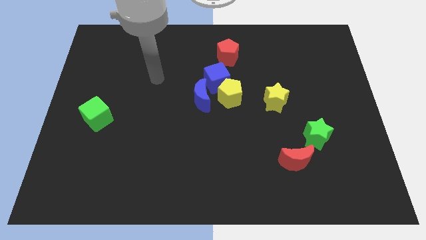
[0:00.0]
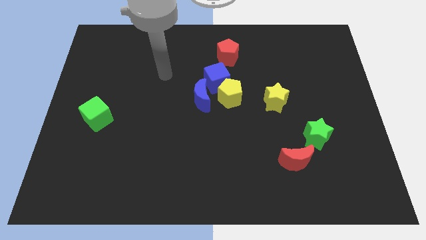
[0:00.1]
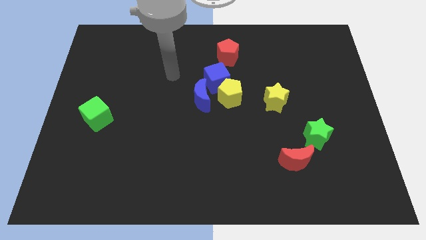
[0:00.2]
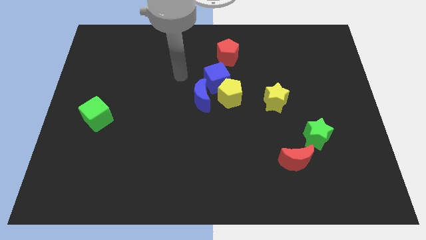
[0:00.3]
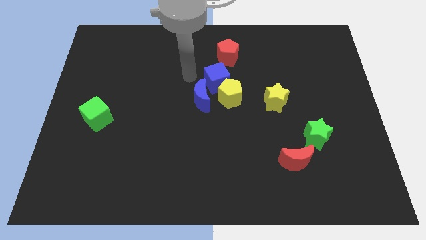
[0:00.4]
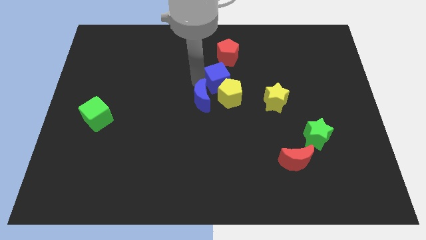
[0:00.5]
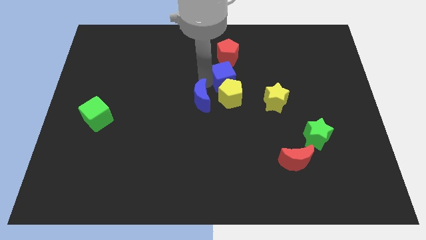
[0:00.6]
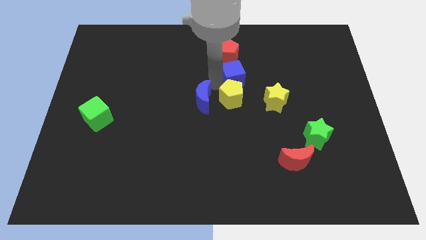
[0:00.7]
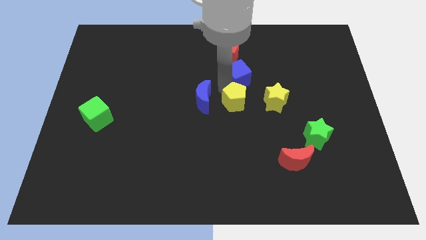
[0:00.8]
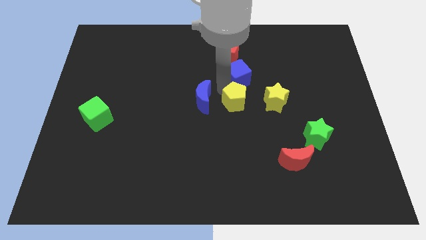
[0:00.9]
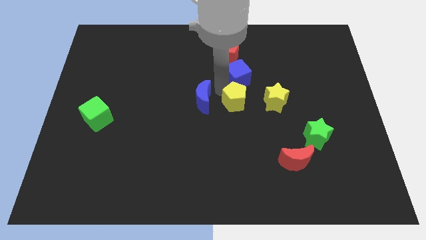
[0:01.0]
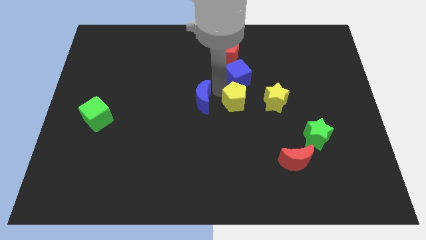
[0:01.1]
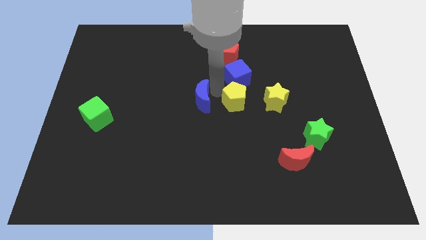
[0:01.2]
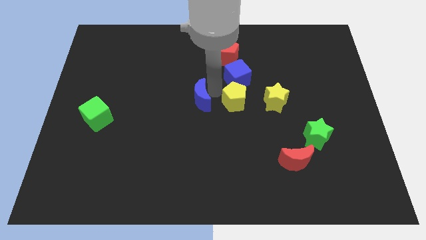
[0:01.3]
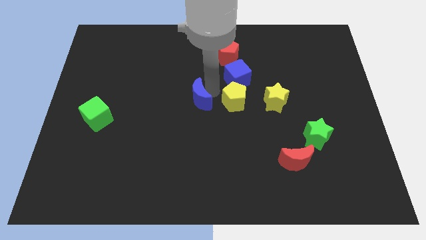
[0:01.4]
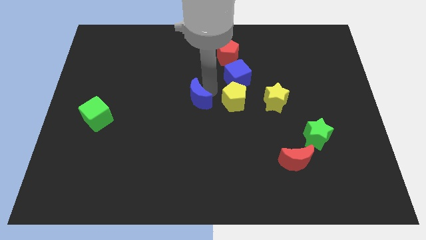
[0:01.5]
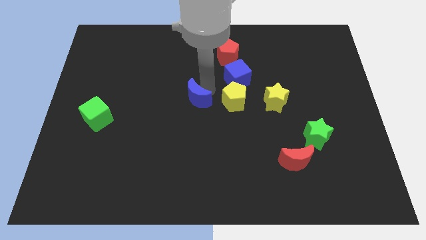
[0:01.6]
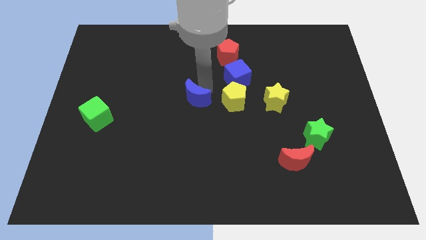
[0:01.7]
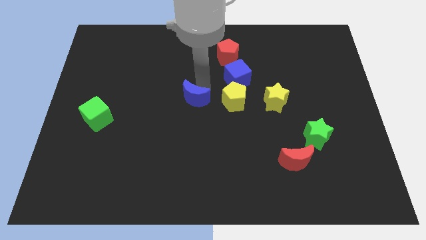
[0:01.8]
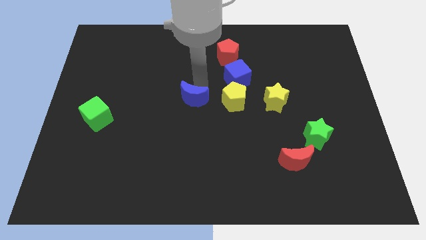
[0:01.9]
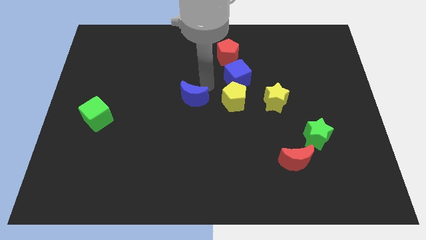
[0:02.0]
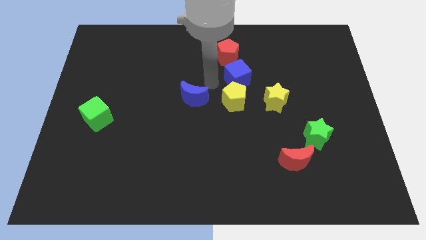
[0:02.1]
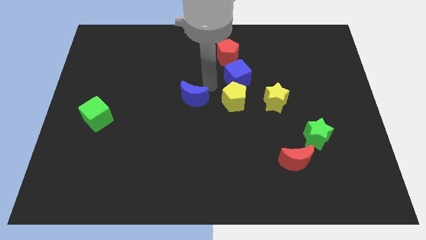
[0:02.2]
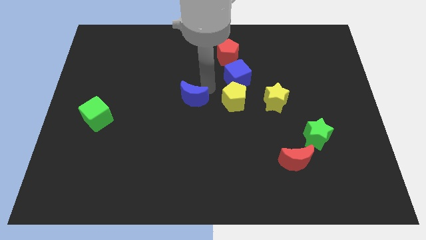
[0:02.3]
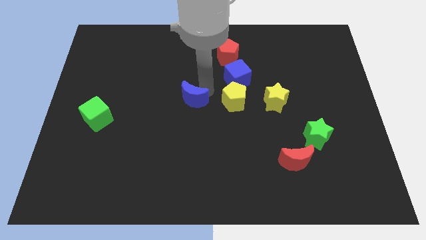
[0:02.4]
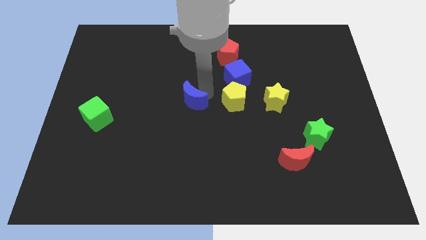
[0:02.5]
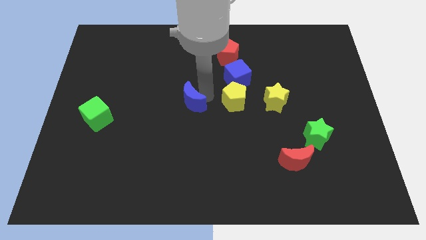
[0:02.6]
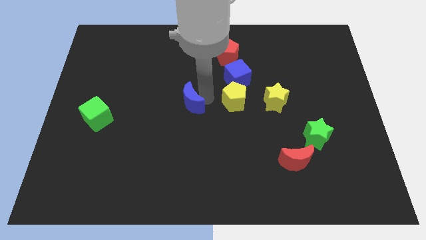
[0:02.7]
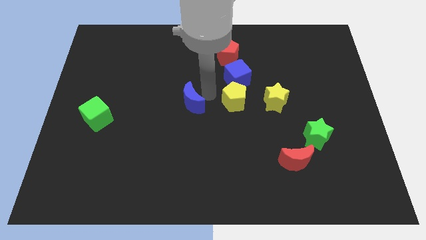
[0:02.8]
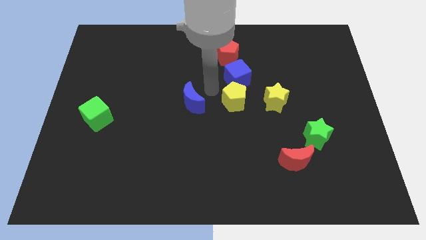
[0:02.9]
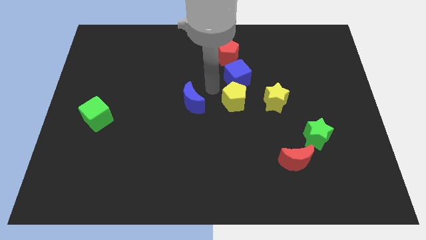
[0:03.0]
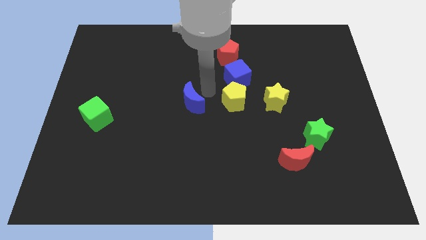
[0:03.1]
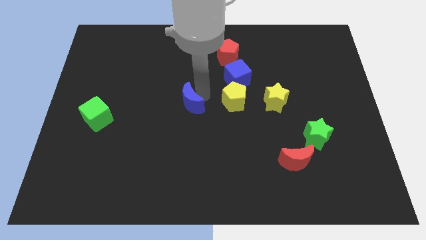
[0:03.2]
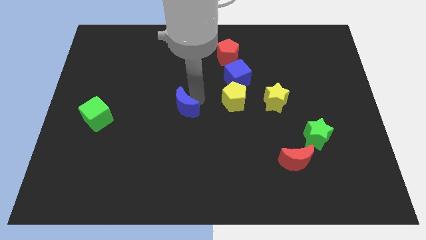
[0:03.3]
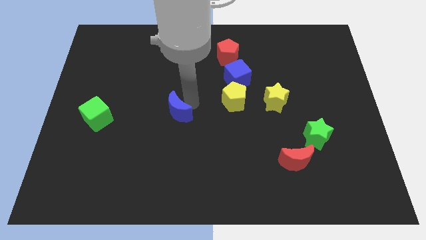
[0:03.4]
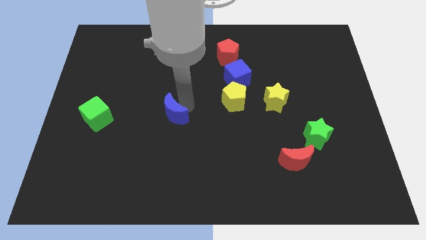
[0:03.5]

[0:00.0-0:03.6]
slightly slide the blue moon diagonally downwards and to the left

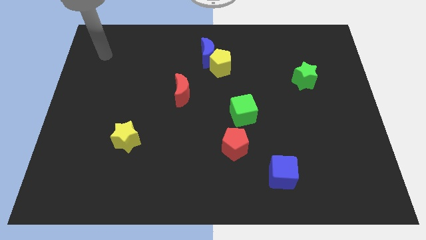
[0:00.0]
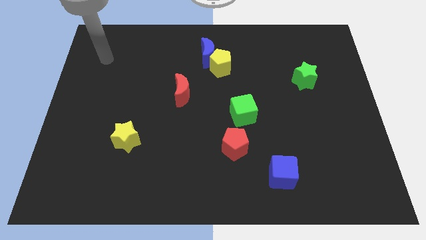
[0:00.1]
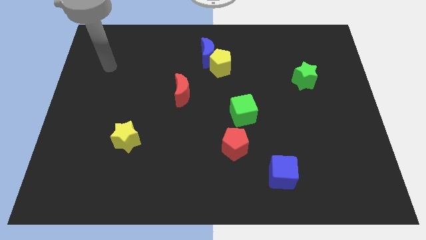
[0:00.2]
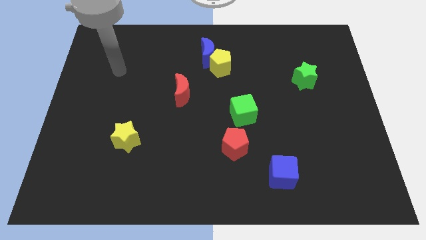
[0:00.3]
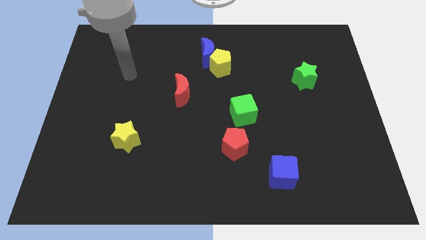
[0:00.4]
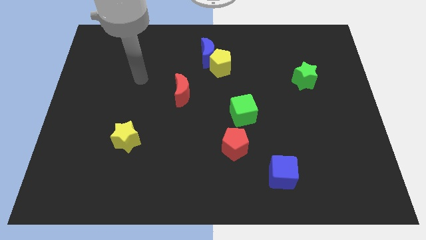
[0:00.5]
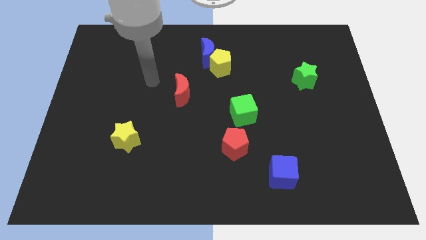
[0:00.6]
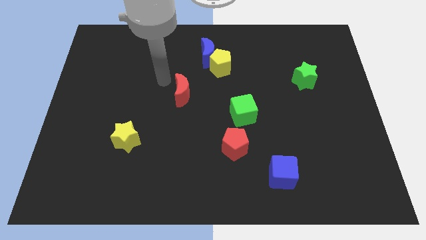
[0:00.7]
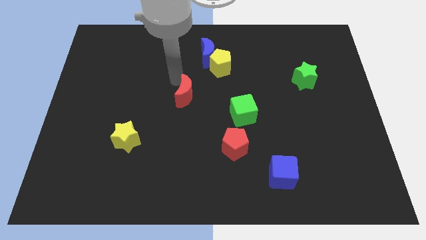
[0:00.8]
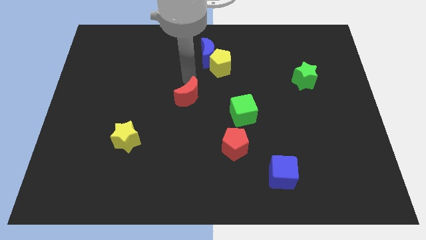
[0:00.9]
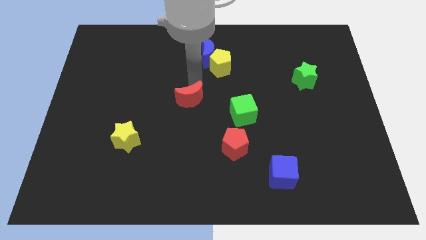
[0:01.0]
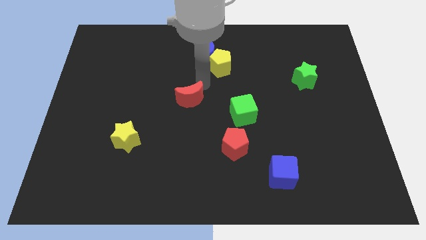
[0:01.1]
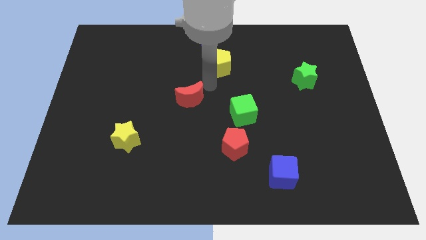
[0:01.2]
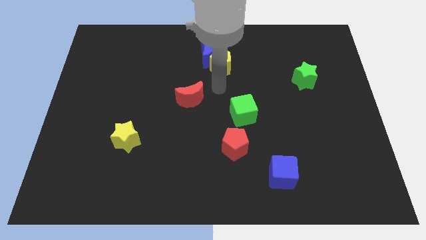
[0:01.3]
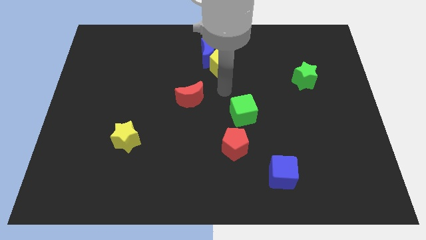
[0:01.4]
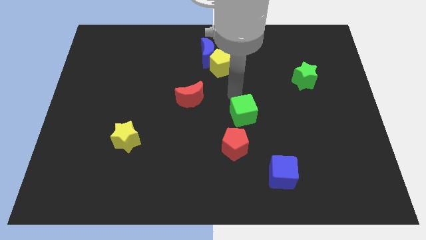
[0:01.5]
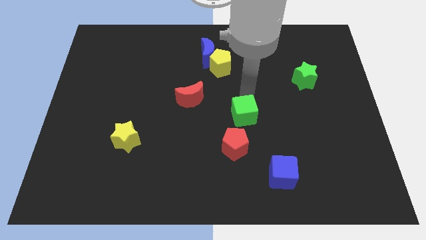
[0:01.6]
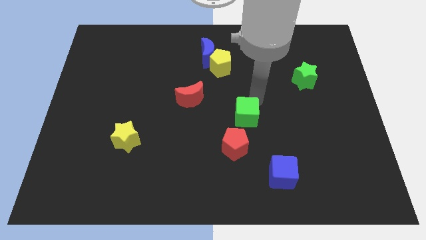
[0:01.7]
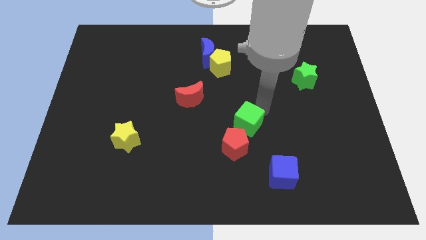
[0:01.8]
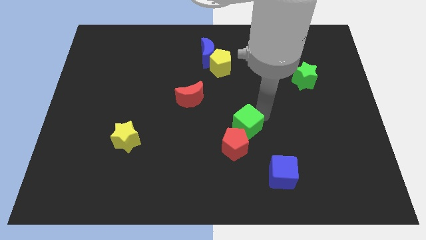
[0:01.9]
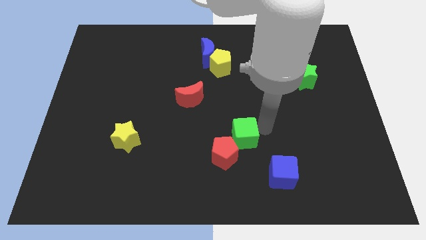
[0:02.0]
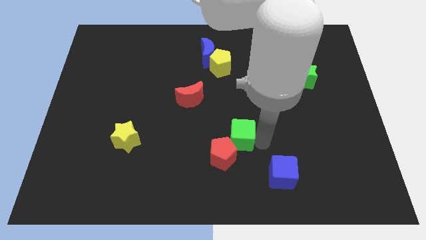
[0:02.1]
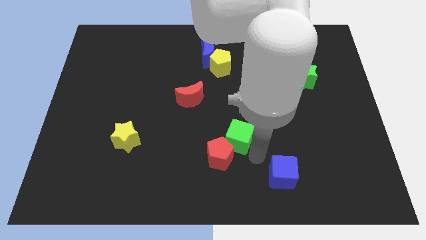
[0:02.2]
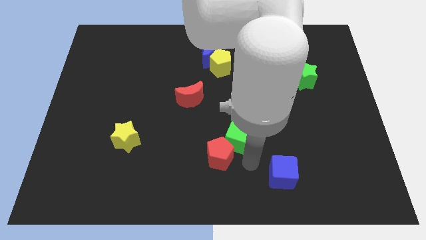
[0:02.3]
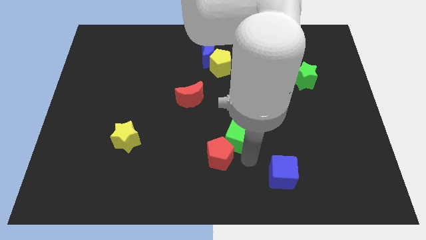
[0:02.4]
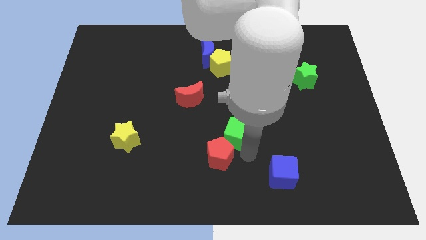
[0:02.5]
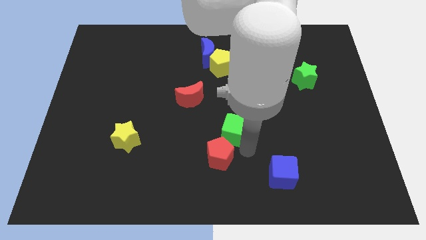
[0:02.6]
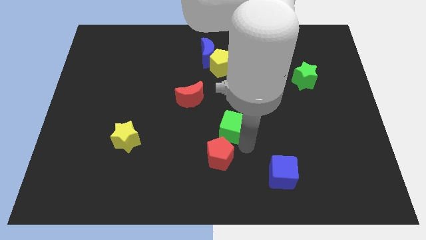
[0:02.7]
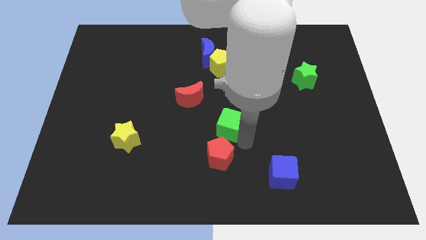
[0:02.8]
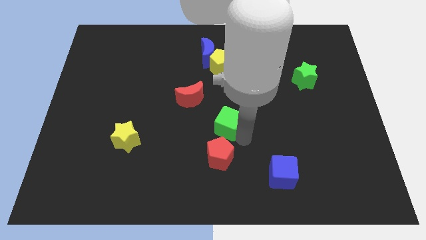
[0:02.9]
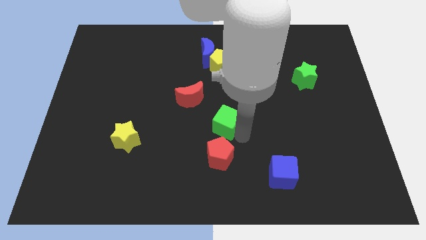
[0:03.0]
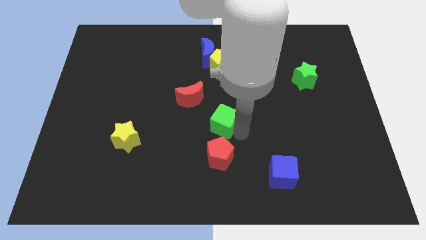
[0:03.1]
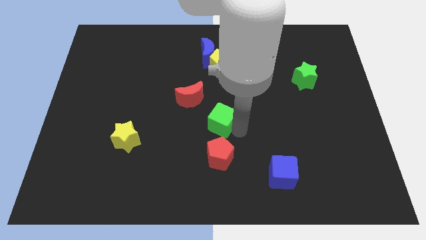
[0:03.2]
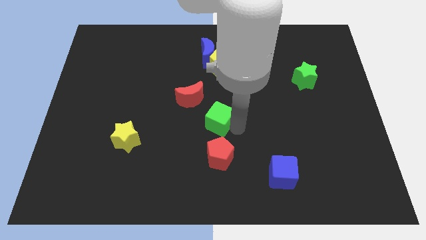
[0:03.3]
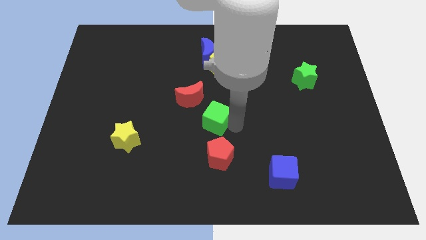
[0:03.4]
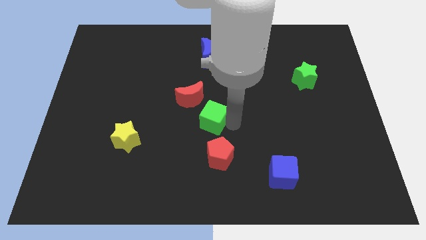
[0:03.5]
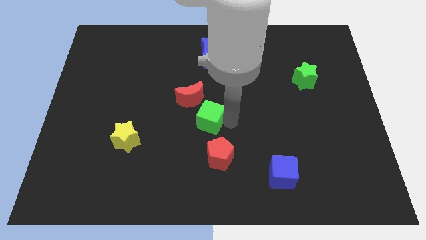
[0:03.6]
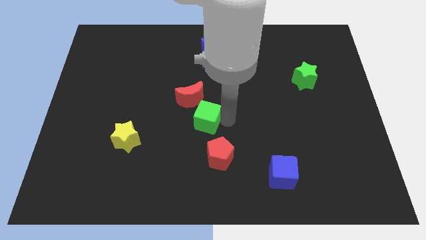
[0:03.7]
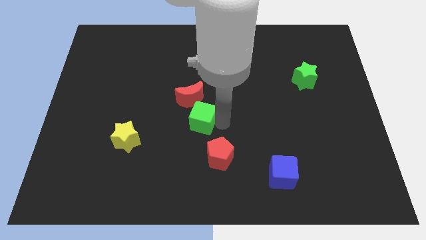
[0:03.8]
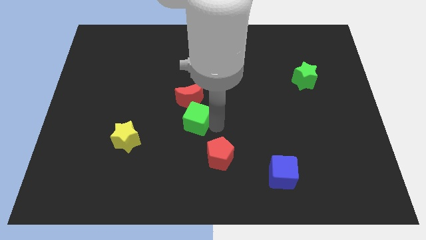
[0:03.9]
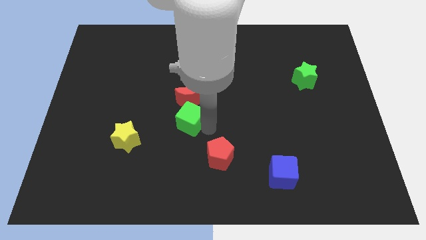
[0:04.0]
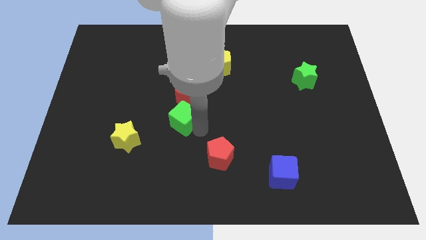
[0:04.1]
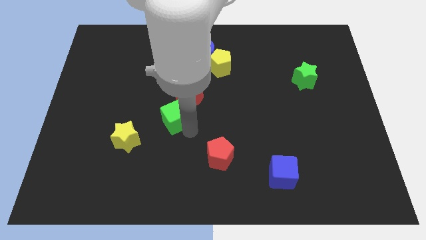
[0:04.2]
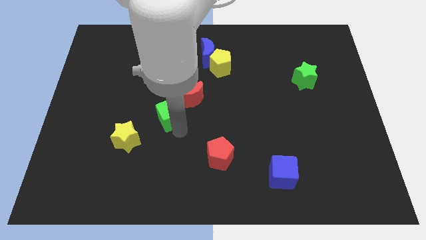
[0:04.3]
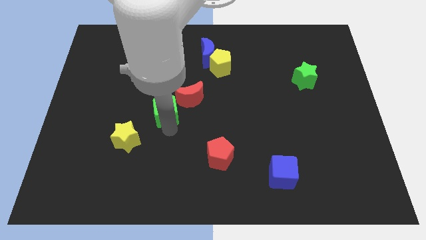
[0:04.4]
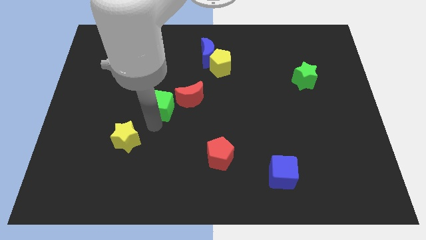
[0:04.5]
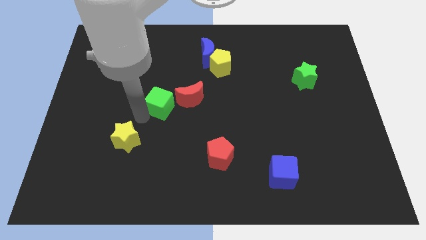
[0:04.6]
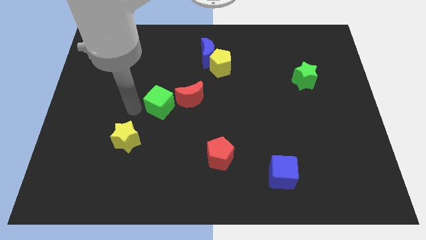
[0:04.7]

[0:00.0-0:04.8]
push the green cube a bit diagonally upwards and left
